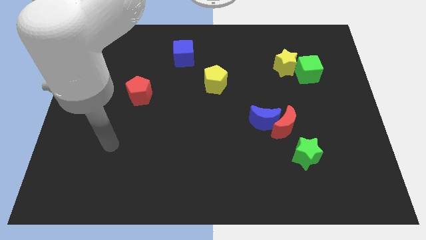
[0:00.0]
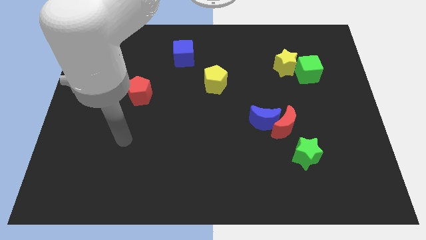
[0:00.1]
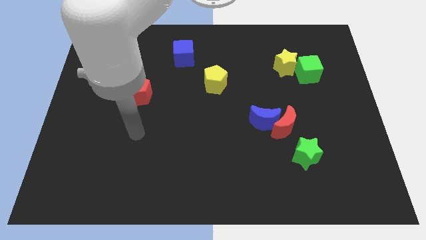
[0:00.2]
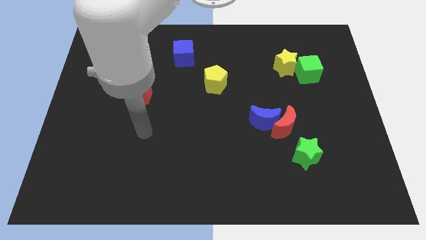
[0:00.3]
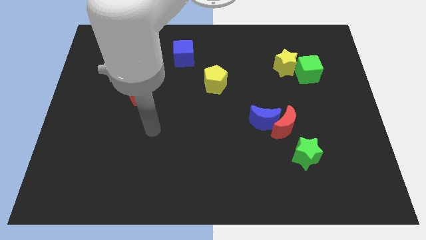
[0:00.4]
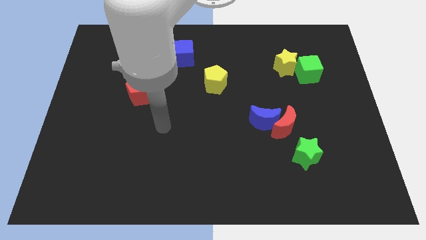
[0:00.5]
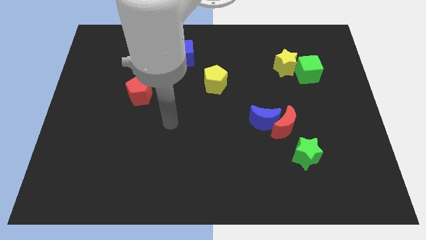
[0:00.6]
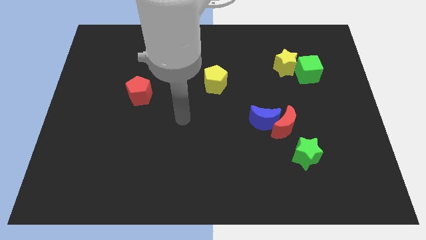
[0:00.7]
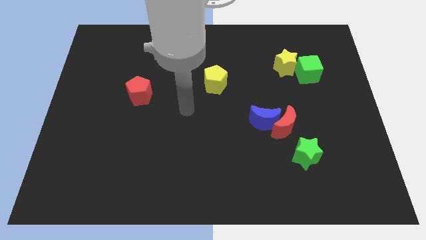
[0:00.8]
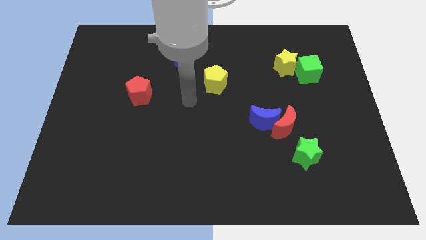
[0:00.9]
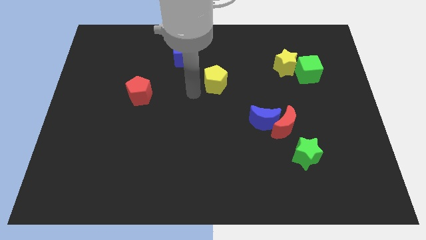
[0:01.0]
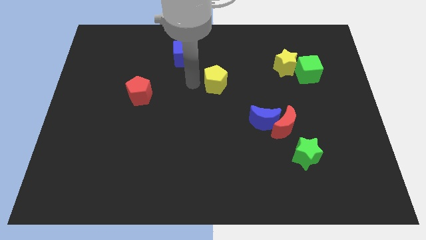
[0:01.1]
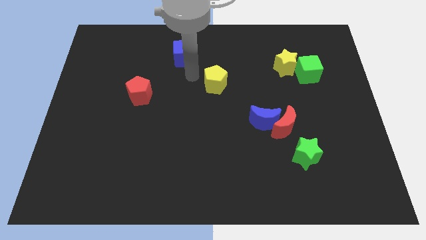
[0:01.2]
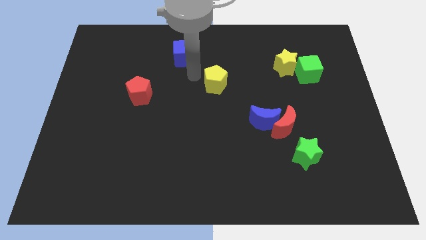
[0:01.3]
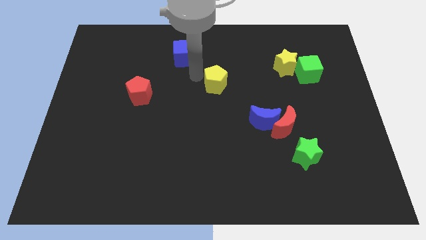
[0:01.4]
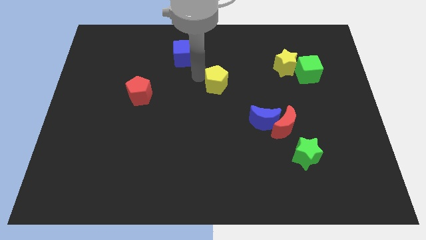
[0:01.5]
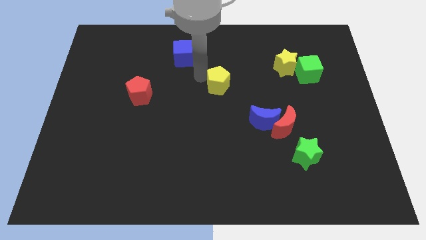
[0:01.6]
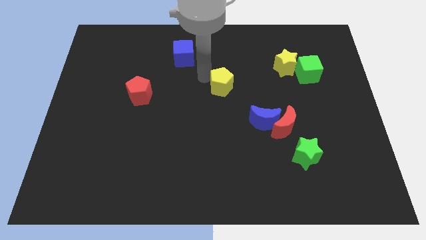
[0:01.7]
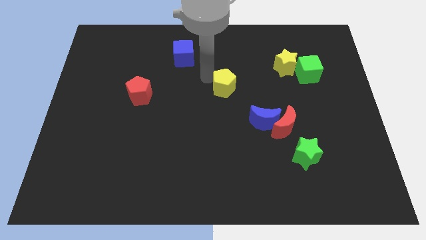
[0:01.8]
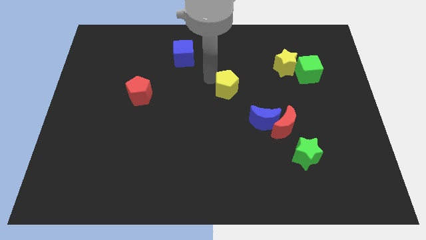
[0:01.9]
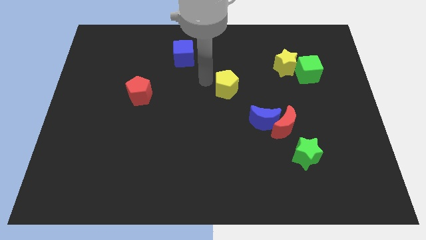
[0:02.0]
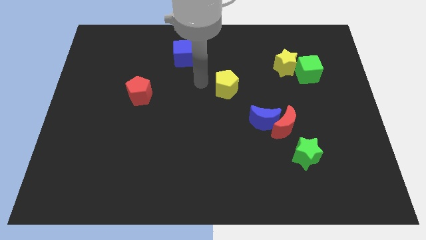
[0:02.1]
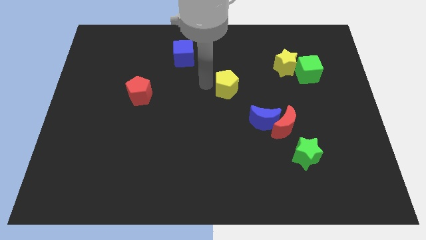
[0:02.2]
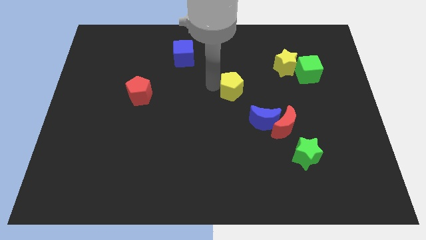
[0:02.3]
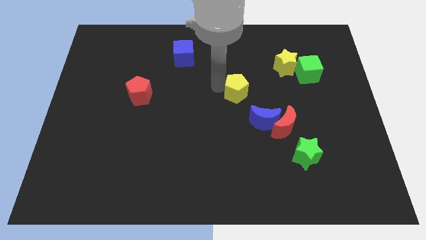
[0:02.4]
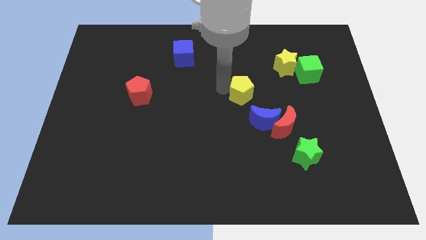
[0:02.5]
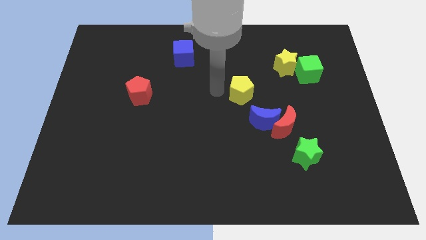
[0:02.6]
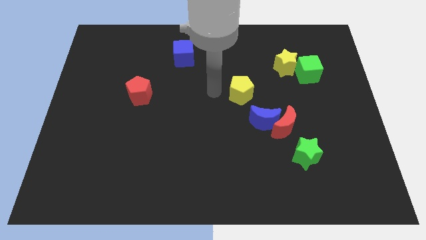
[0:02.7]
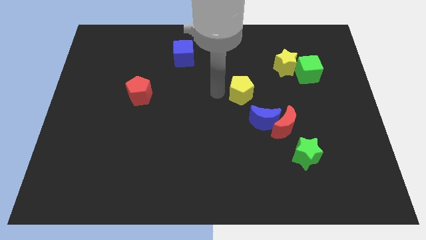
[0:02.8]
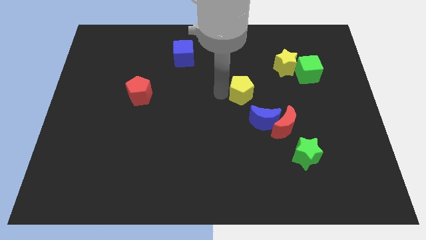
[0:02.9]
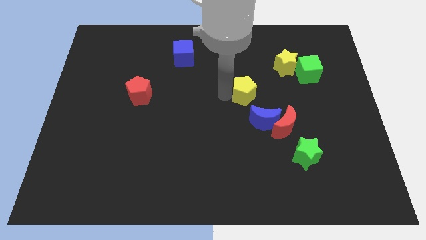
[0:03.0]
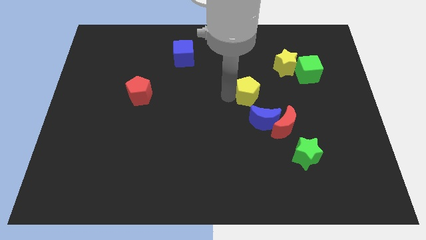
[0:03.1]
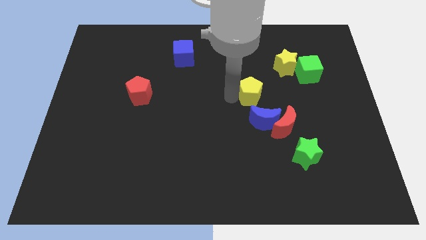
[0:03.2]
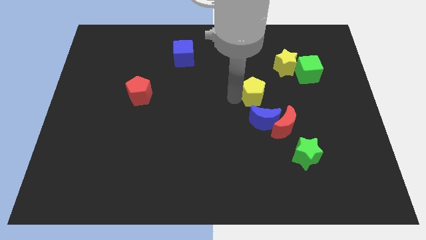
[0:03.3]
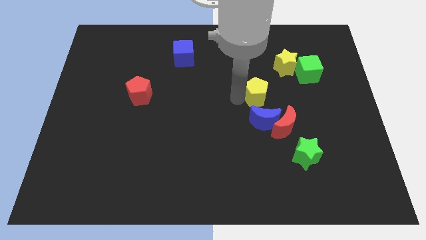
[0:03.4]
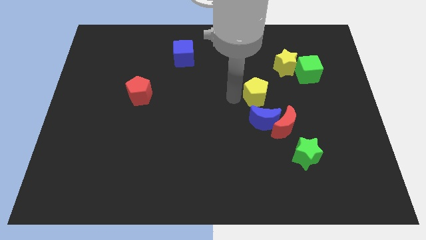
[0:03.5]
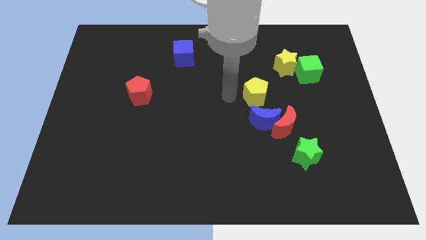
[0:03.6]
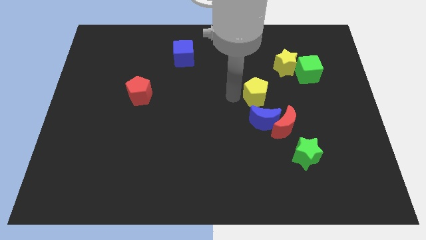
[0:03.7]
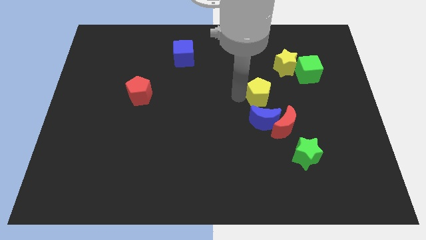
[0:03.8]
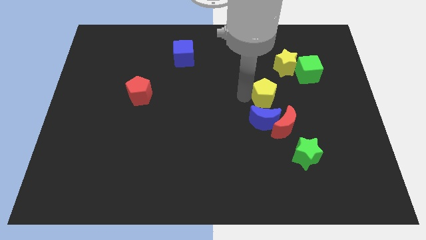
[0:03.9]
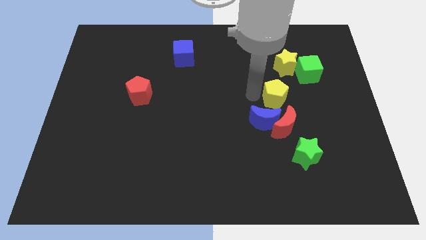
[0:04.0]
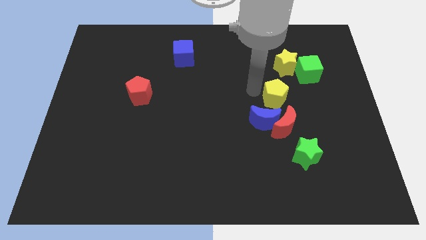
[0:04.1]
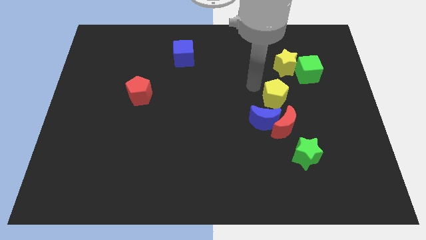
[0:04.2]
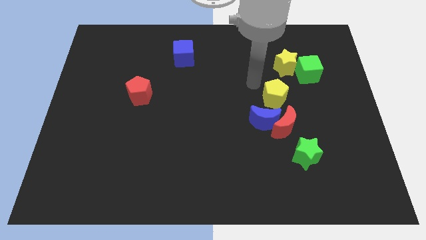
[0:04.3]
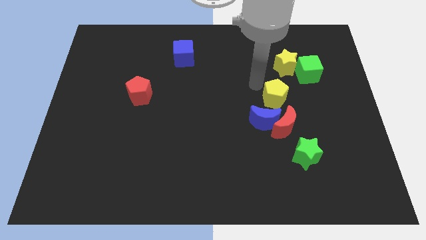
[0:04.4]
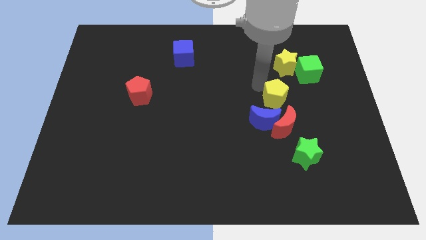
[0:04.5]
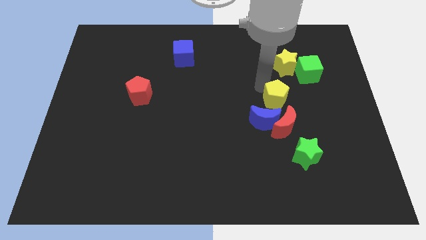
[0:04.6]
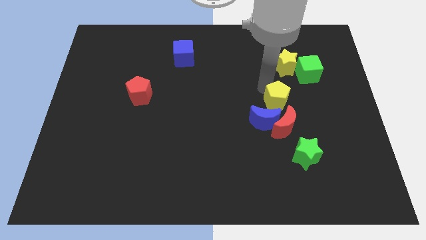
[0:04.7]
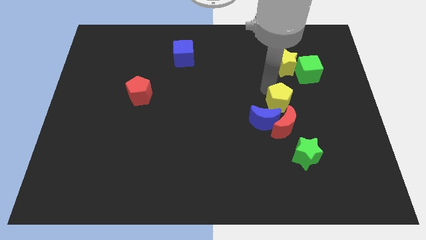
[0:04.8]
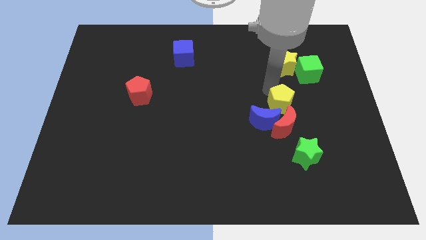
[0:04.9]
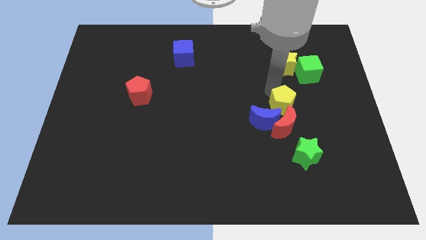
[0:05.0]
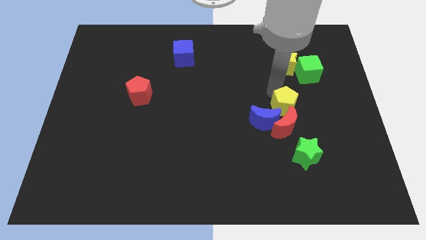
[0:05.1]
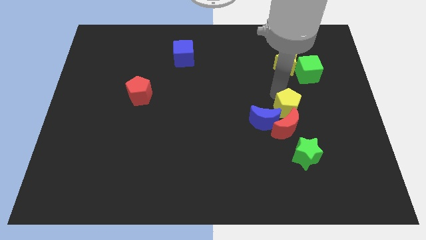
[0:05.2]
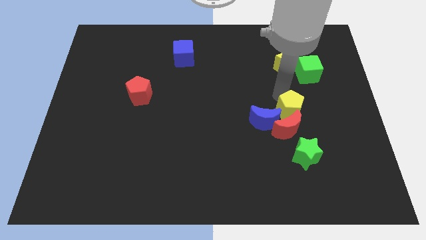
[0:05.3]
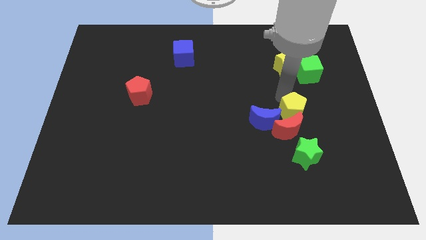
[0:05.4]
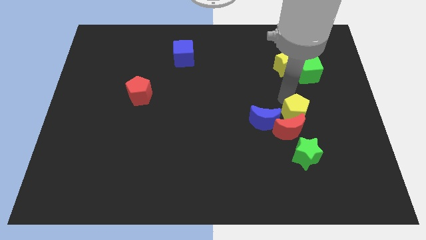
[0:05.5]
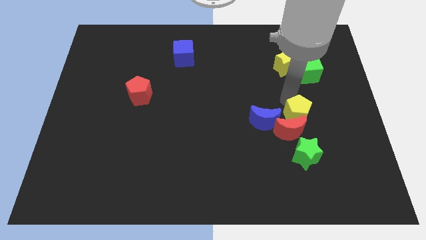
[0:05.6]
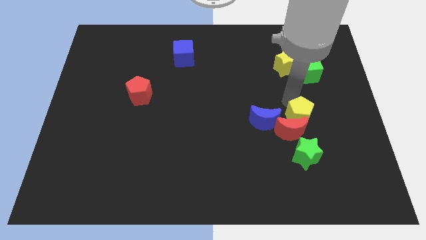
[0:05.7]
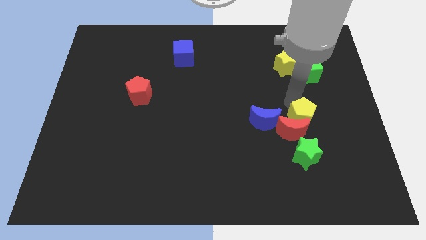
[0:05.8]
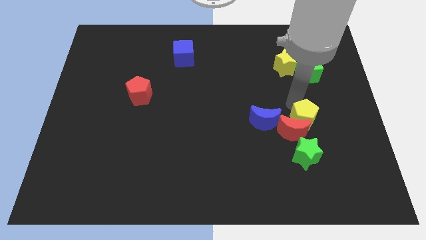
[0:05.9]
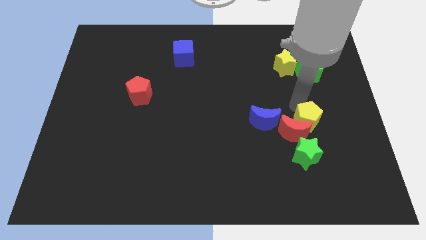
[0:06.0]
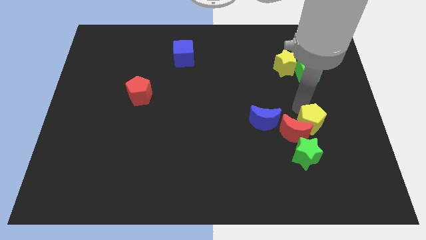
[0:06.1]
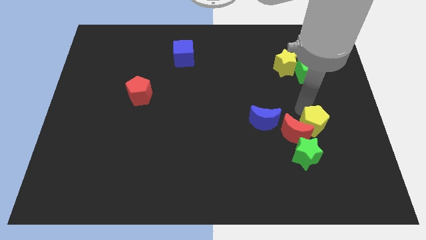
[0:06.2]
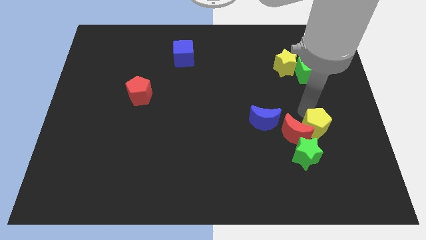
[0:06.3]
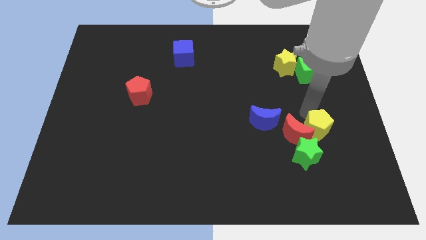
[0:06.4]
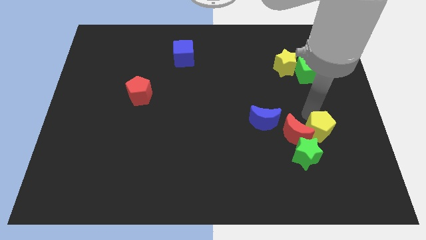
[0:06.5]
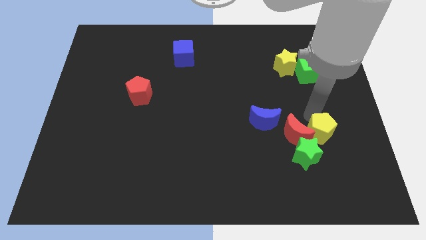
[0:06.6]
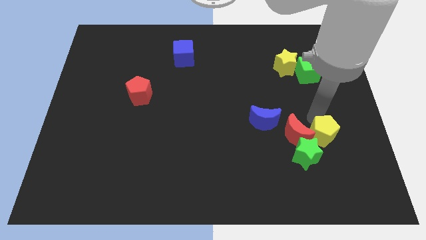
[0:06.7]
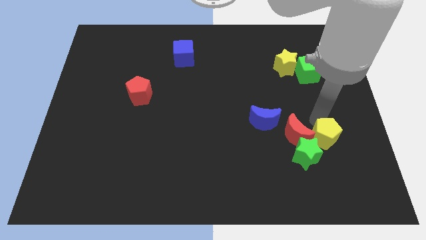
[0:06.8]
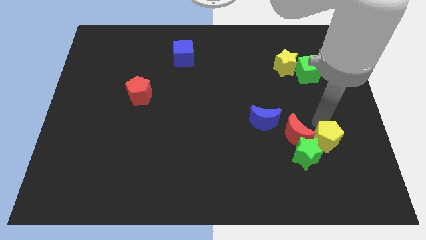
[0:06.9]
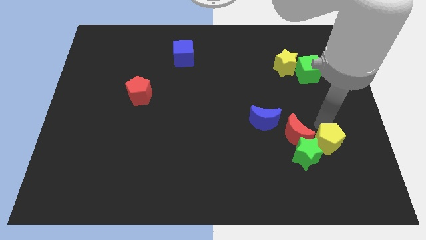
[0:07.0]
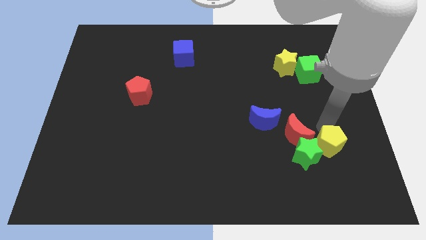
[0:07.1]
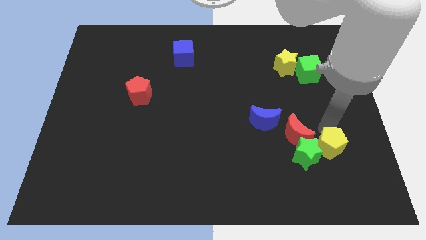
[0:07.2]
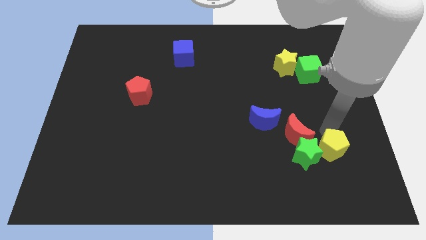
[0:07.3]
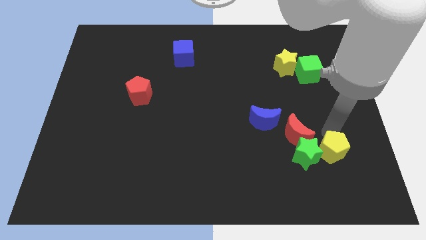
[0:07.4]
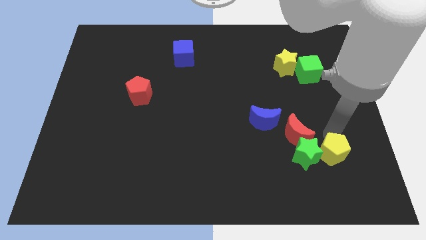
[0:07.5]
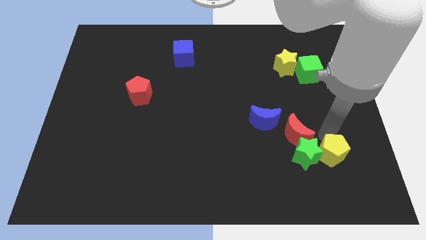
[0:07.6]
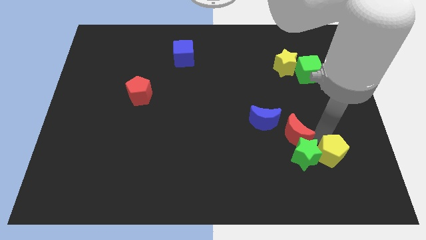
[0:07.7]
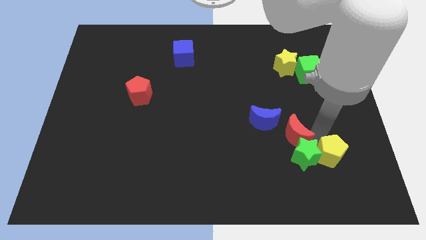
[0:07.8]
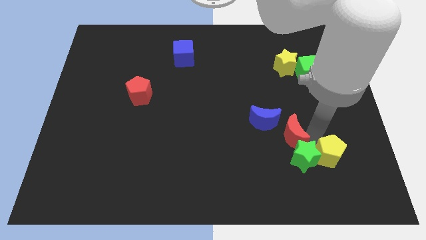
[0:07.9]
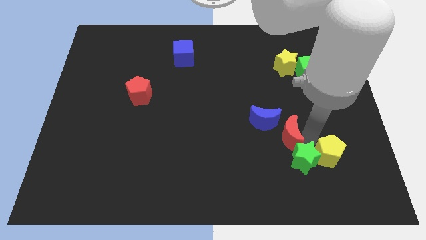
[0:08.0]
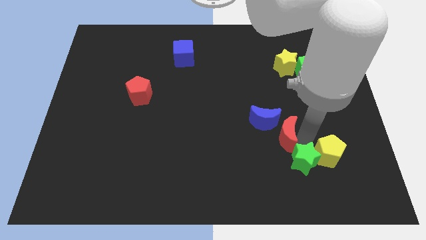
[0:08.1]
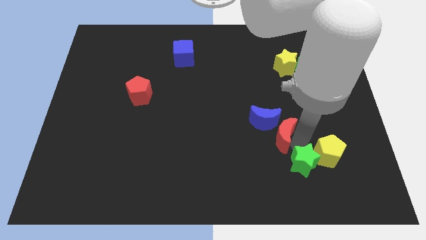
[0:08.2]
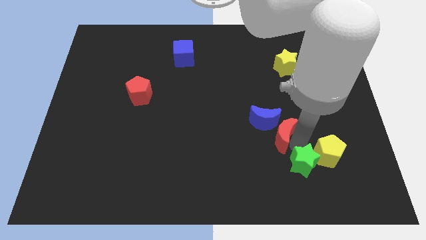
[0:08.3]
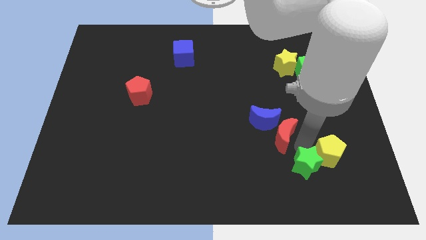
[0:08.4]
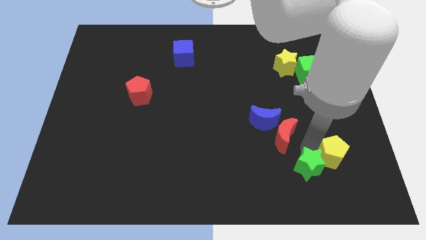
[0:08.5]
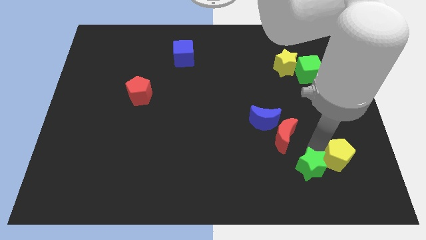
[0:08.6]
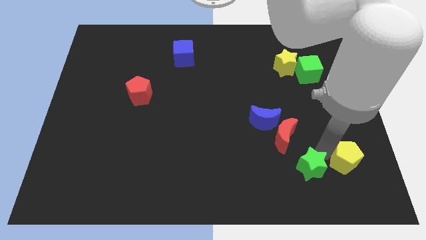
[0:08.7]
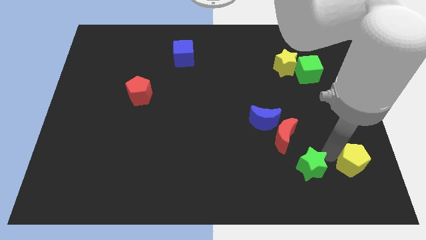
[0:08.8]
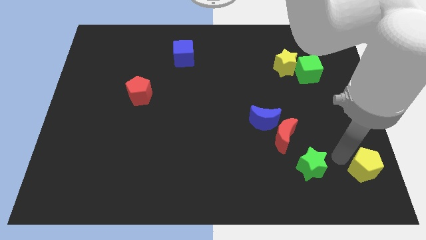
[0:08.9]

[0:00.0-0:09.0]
move the yellow pentagon to the bottom right of the board
